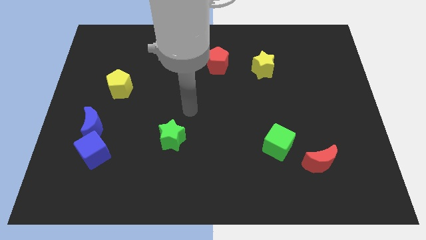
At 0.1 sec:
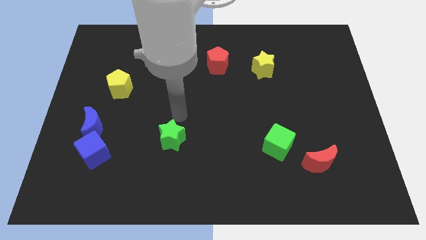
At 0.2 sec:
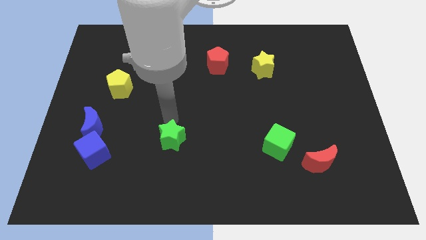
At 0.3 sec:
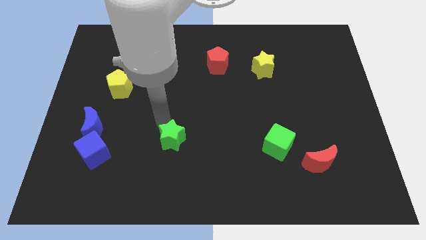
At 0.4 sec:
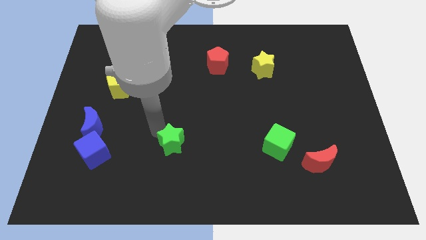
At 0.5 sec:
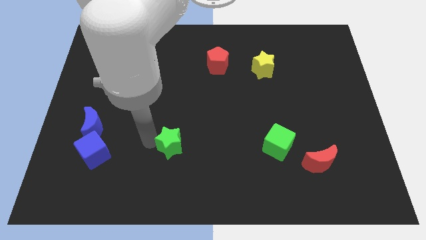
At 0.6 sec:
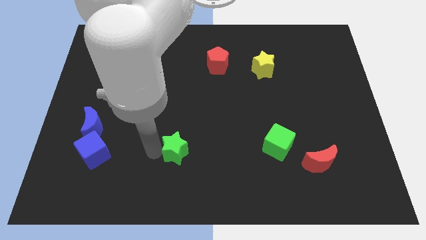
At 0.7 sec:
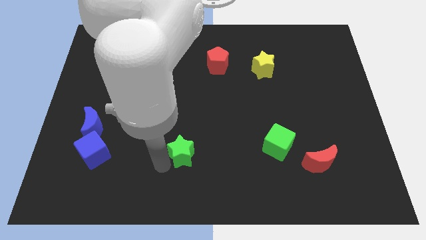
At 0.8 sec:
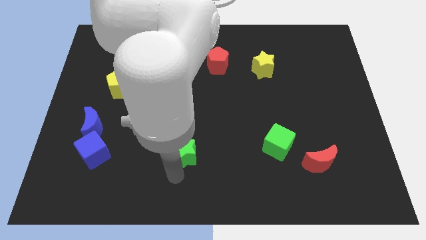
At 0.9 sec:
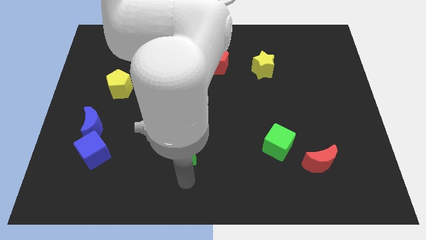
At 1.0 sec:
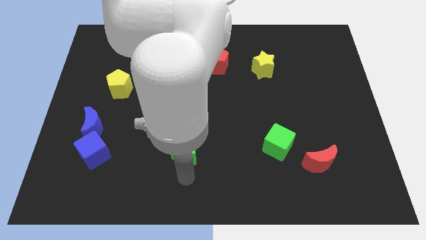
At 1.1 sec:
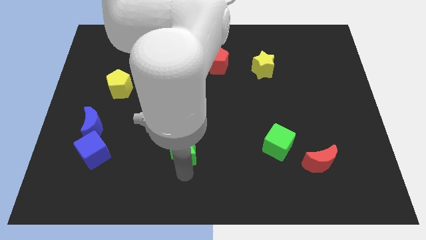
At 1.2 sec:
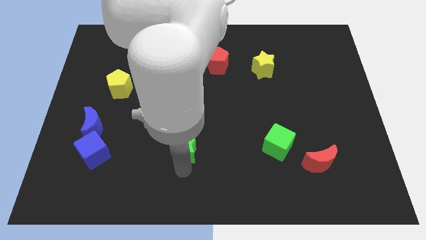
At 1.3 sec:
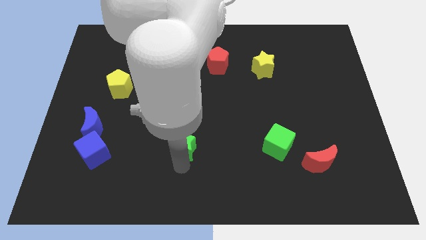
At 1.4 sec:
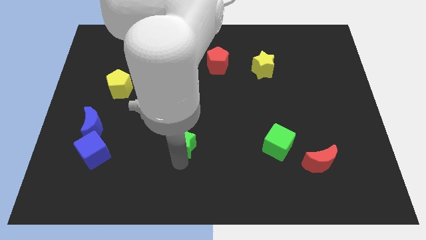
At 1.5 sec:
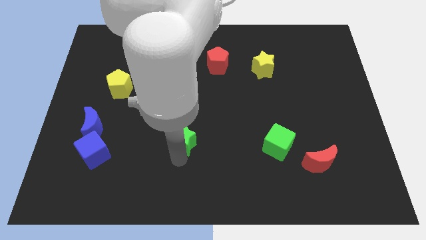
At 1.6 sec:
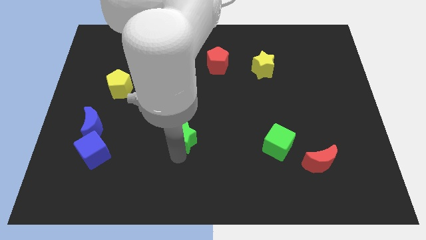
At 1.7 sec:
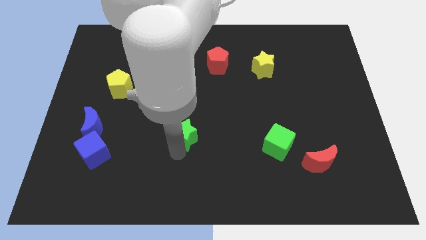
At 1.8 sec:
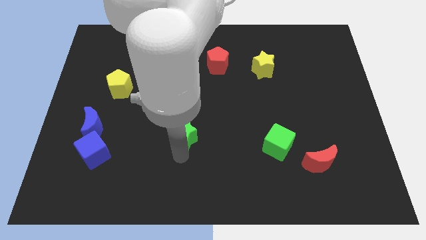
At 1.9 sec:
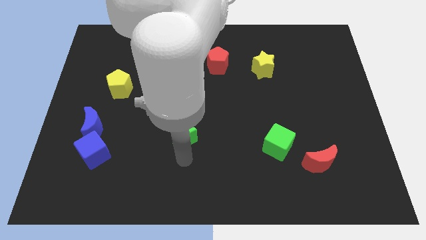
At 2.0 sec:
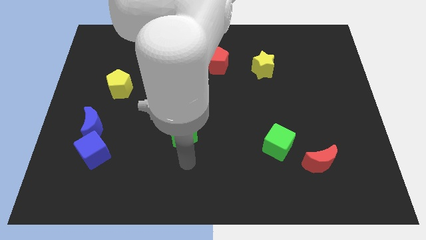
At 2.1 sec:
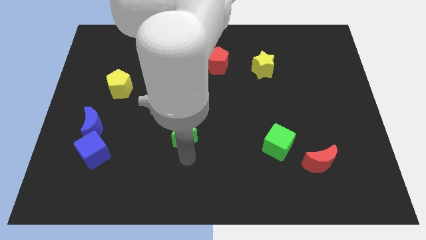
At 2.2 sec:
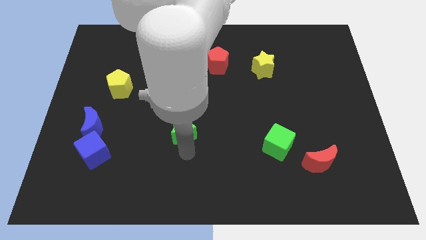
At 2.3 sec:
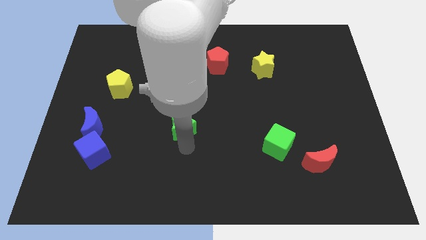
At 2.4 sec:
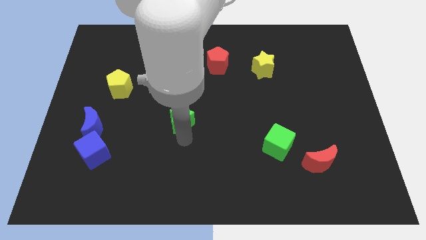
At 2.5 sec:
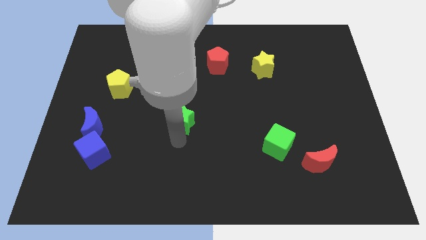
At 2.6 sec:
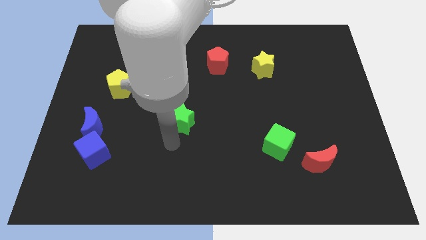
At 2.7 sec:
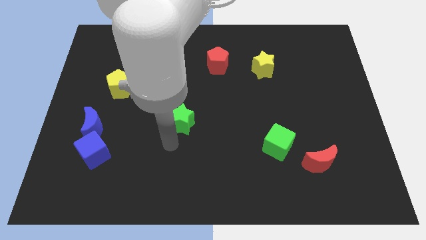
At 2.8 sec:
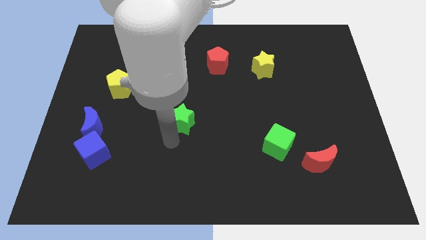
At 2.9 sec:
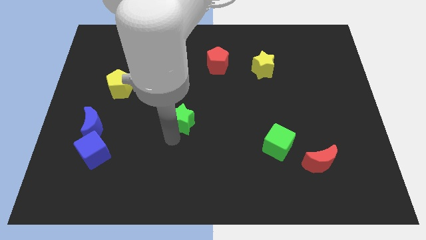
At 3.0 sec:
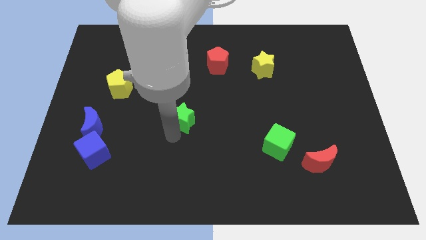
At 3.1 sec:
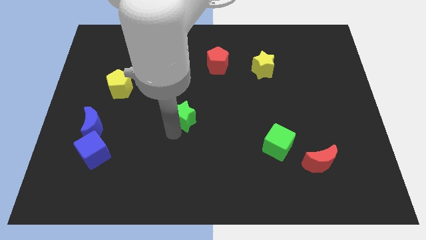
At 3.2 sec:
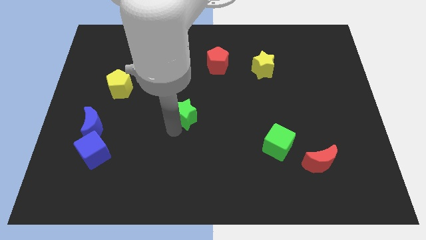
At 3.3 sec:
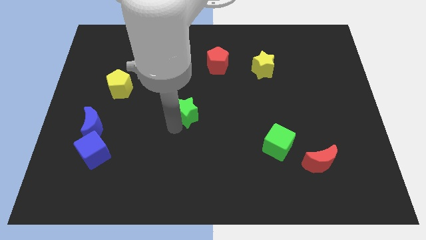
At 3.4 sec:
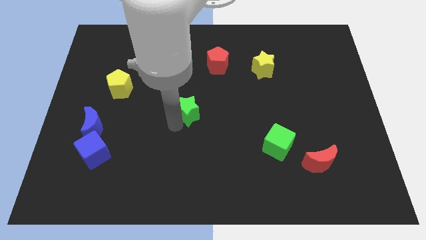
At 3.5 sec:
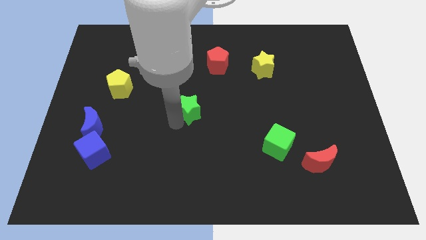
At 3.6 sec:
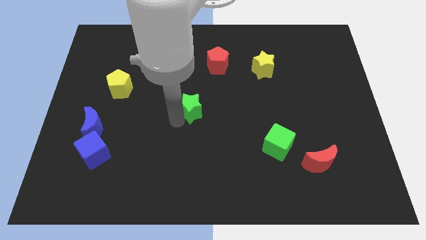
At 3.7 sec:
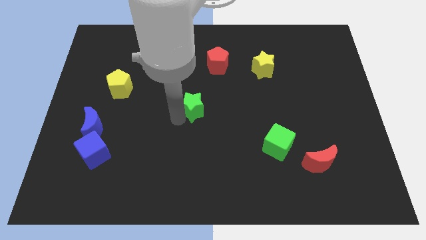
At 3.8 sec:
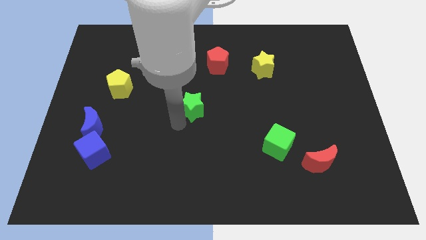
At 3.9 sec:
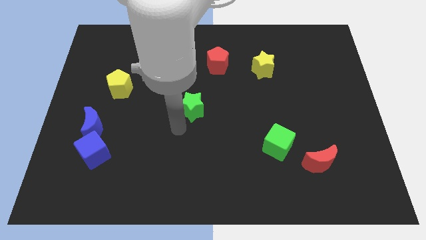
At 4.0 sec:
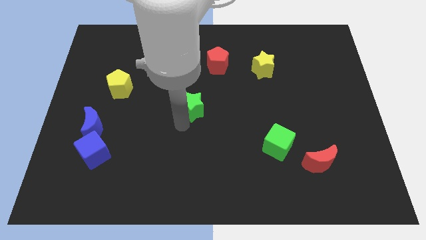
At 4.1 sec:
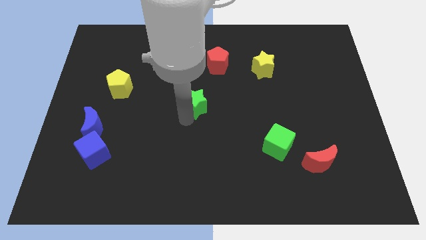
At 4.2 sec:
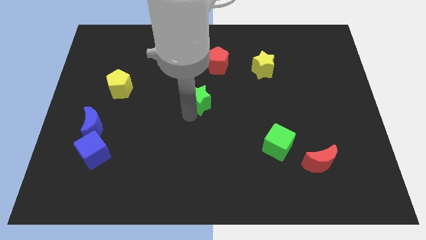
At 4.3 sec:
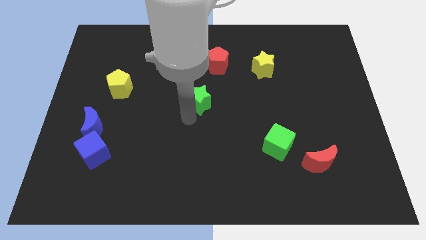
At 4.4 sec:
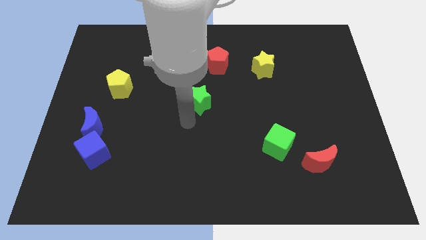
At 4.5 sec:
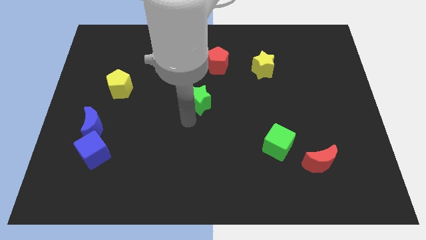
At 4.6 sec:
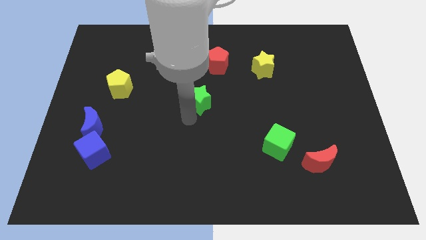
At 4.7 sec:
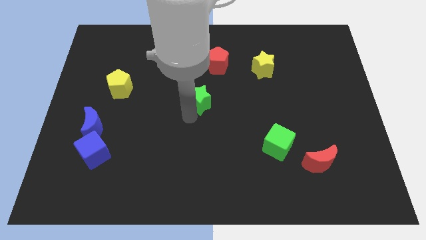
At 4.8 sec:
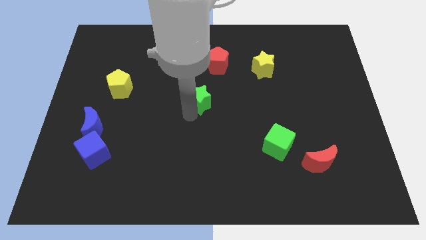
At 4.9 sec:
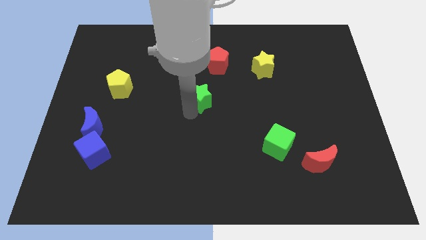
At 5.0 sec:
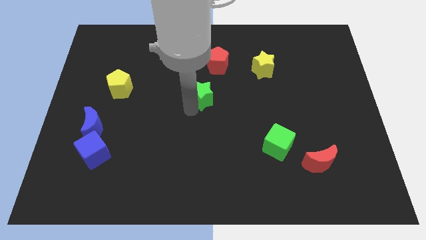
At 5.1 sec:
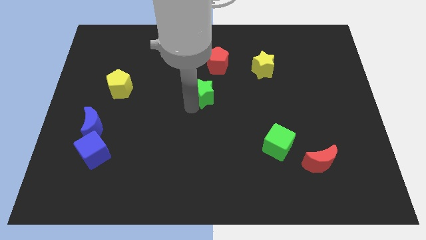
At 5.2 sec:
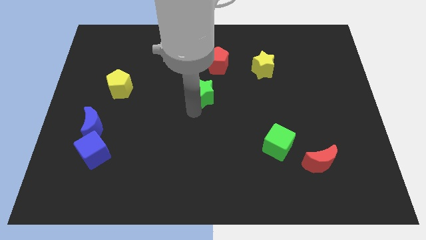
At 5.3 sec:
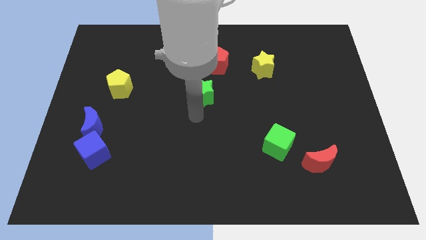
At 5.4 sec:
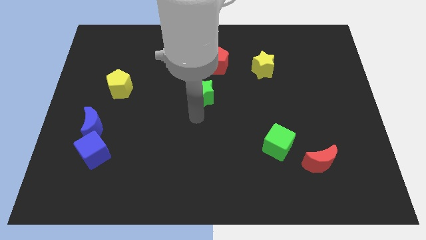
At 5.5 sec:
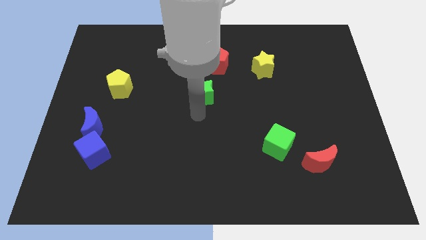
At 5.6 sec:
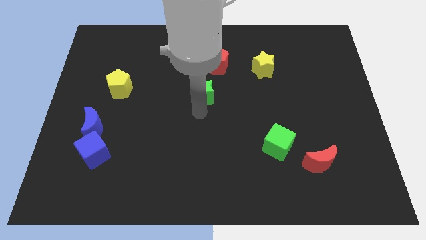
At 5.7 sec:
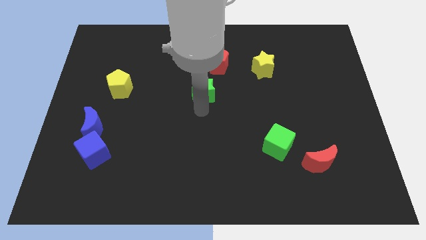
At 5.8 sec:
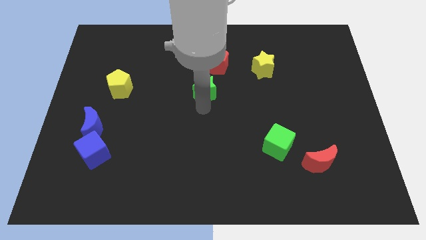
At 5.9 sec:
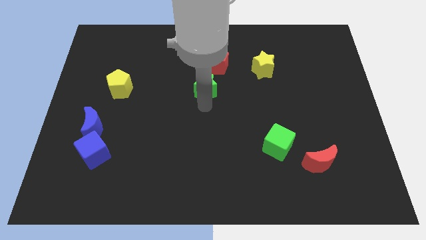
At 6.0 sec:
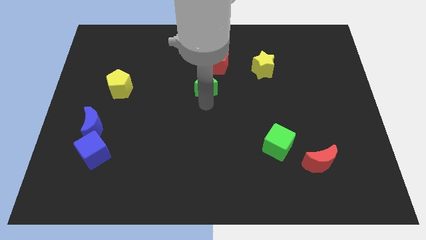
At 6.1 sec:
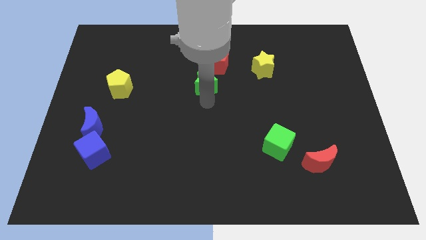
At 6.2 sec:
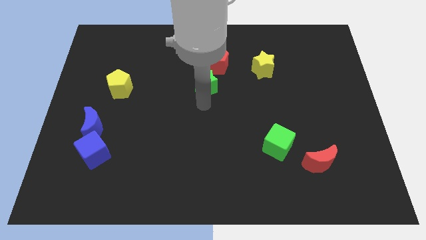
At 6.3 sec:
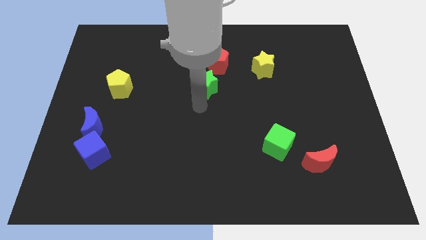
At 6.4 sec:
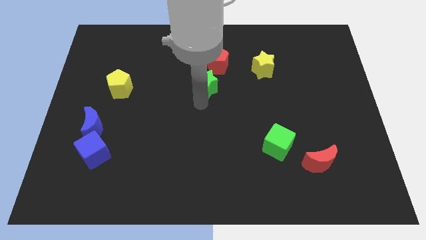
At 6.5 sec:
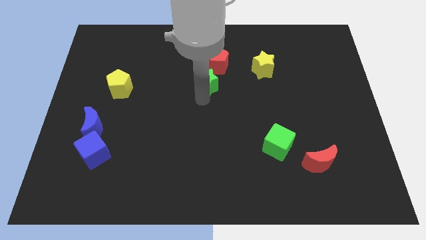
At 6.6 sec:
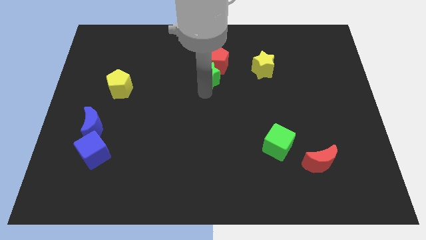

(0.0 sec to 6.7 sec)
put the green star to the red pentagon

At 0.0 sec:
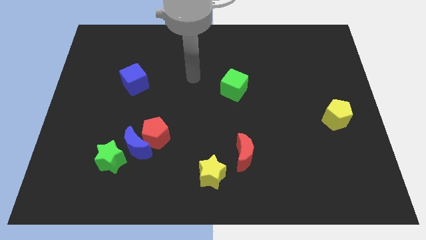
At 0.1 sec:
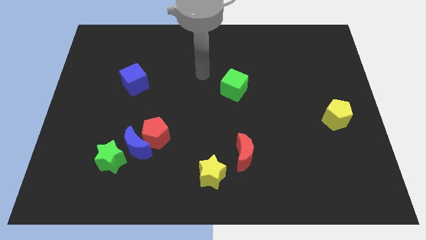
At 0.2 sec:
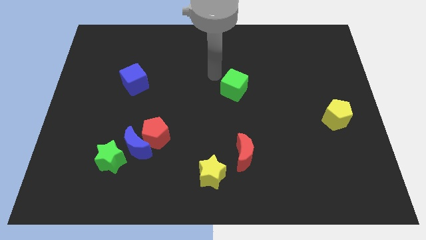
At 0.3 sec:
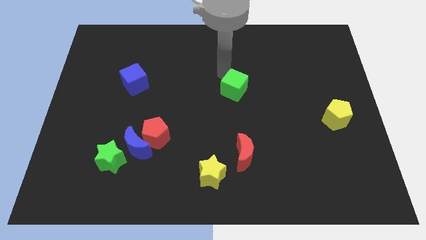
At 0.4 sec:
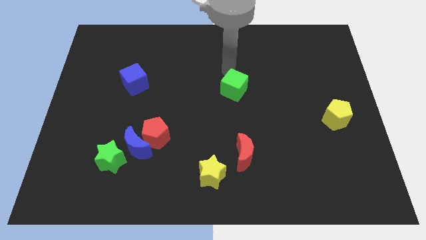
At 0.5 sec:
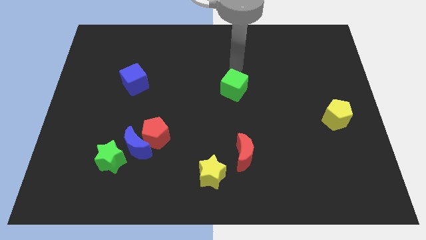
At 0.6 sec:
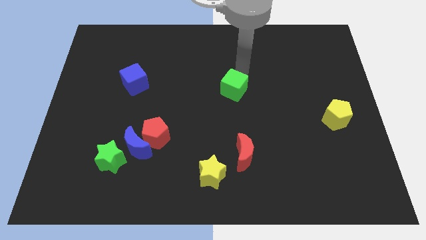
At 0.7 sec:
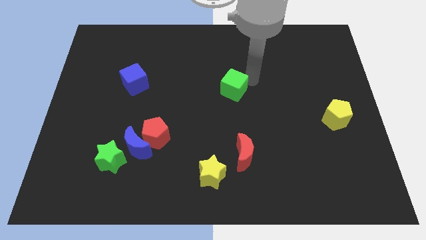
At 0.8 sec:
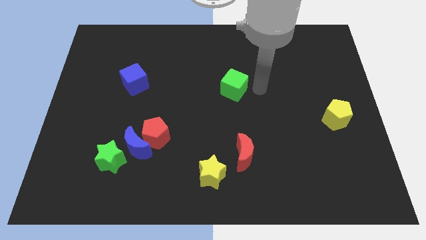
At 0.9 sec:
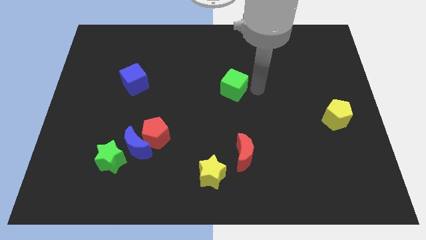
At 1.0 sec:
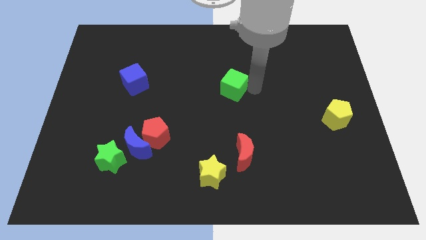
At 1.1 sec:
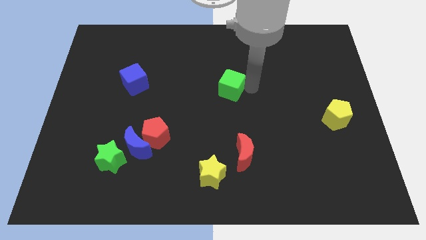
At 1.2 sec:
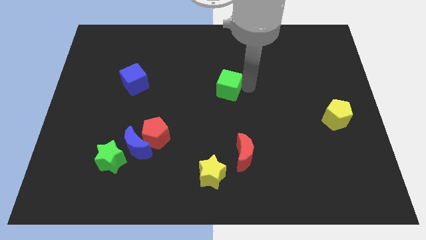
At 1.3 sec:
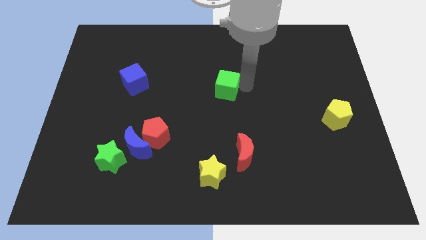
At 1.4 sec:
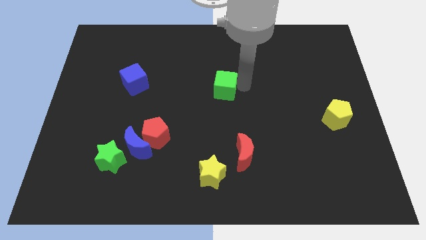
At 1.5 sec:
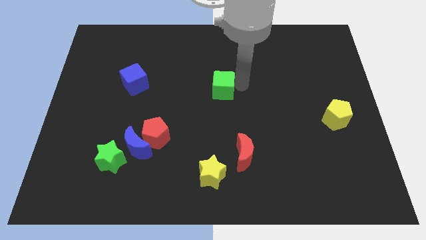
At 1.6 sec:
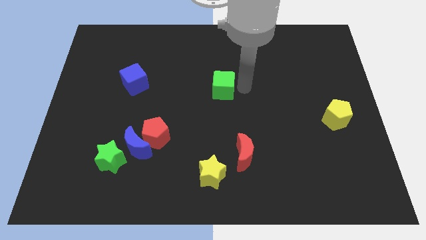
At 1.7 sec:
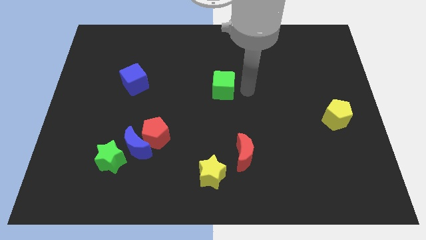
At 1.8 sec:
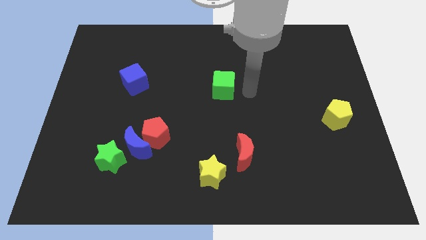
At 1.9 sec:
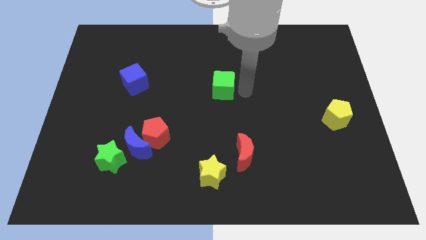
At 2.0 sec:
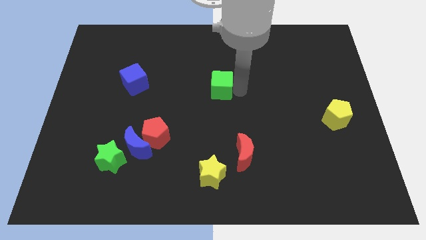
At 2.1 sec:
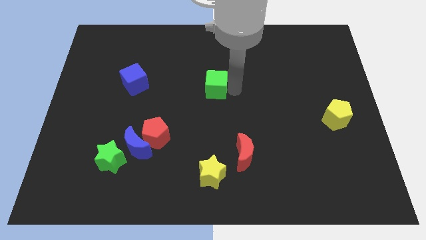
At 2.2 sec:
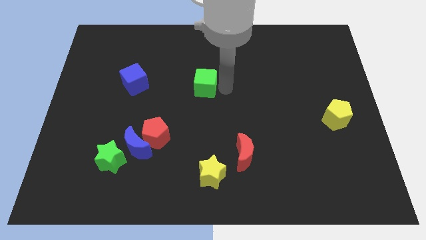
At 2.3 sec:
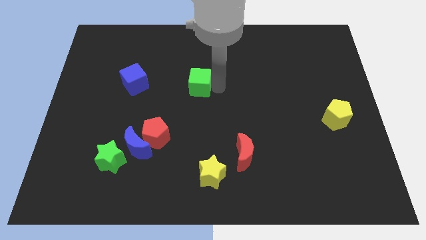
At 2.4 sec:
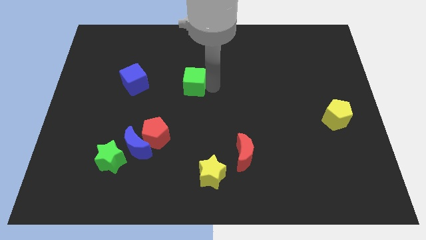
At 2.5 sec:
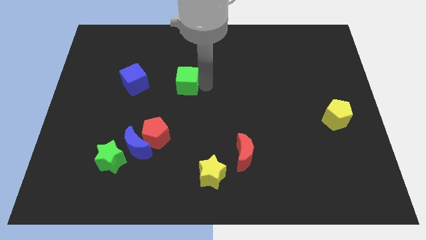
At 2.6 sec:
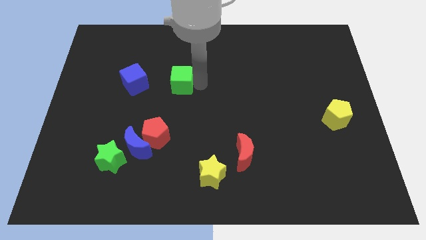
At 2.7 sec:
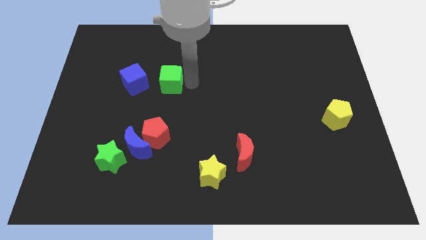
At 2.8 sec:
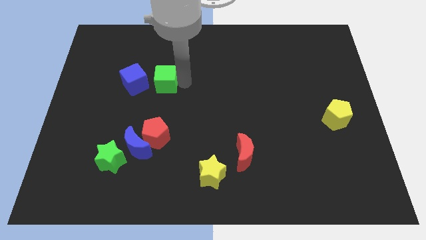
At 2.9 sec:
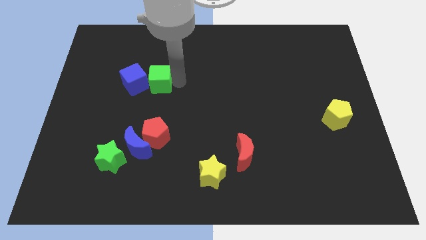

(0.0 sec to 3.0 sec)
move the green cube next to the blue cube
